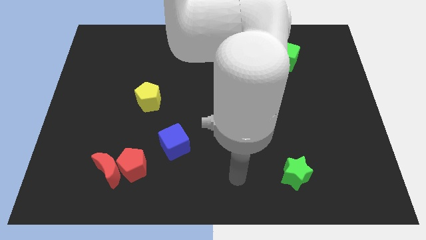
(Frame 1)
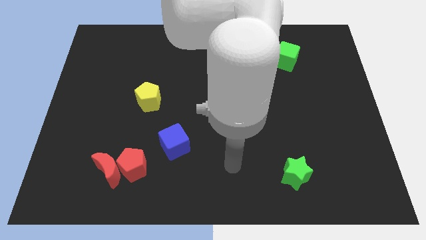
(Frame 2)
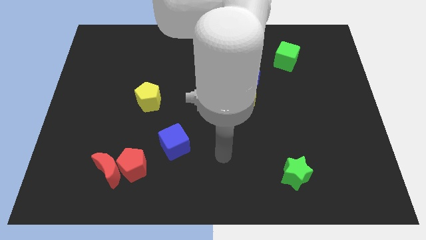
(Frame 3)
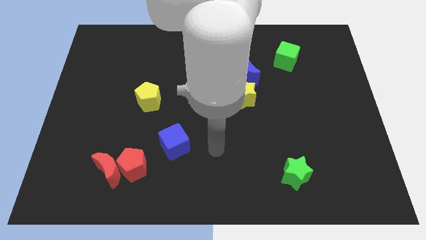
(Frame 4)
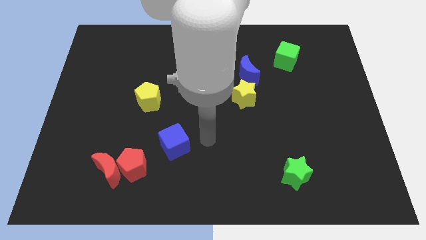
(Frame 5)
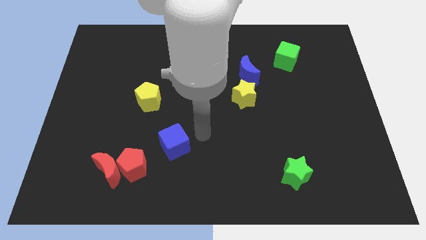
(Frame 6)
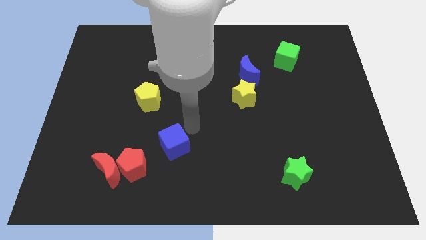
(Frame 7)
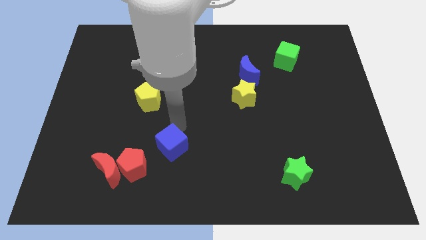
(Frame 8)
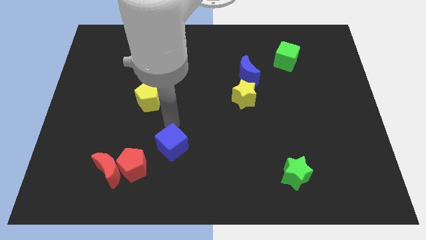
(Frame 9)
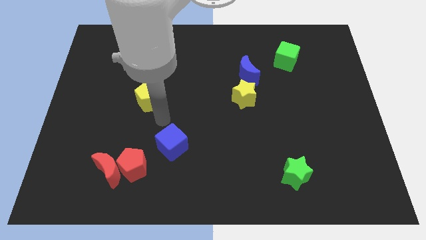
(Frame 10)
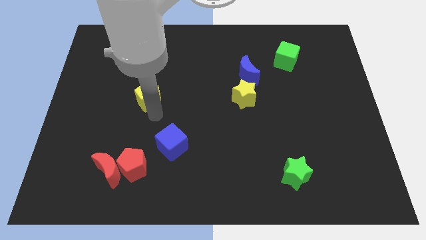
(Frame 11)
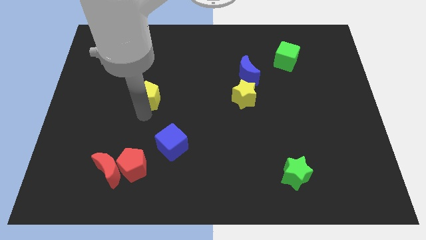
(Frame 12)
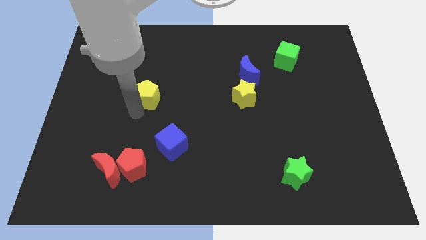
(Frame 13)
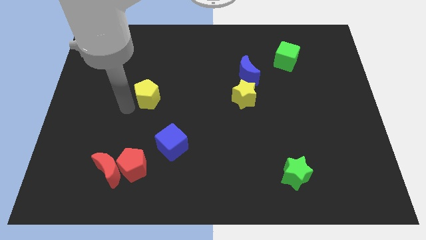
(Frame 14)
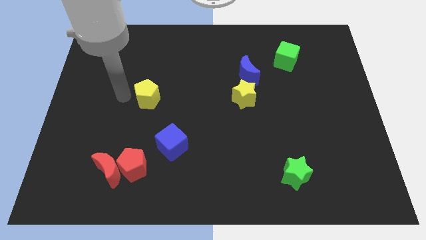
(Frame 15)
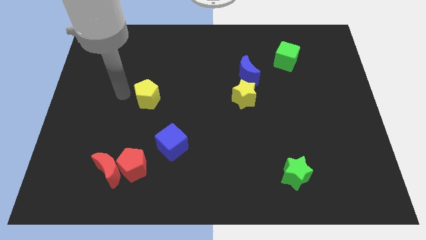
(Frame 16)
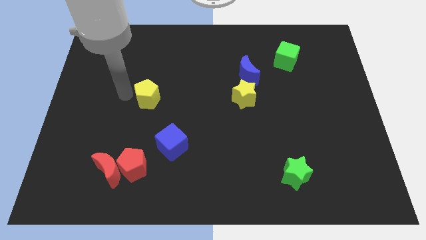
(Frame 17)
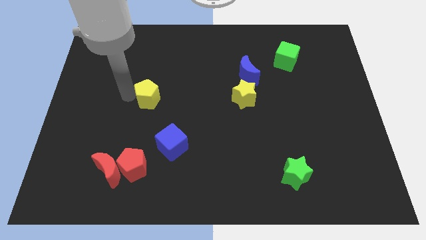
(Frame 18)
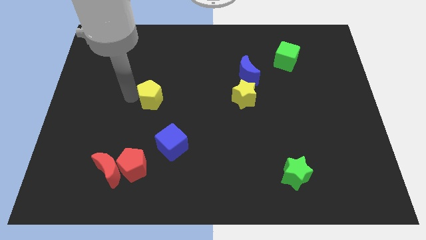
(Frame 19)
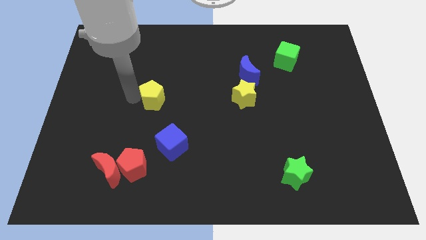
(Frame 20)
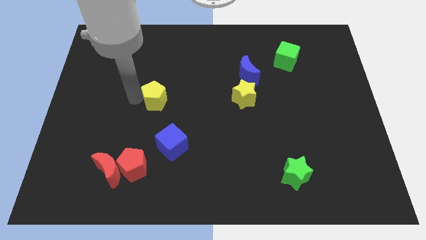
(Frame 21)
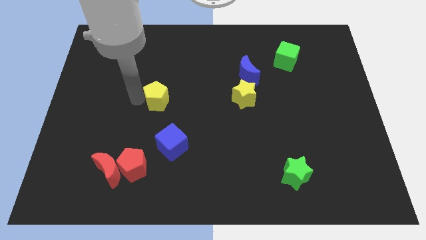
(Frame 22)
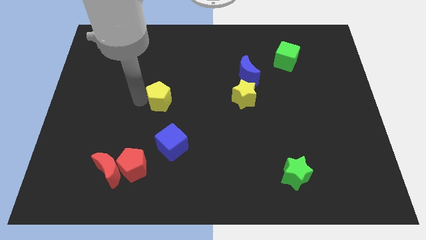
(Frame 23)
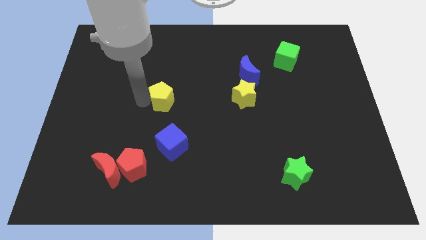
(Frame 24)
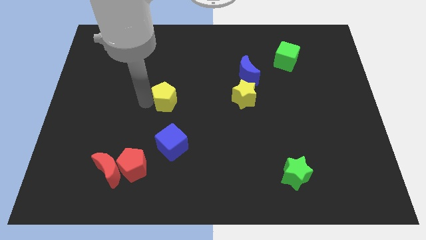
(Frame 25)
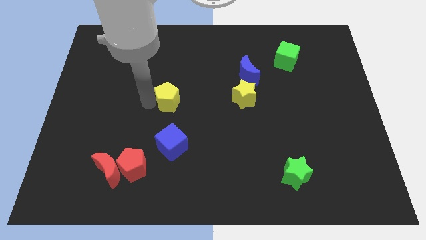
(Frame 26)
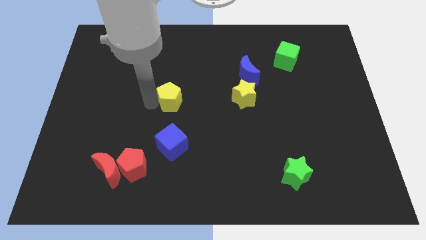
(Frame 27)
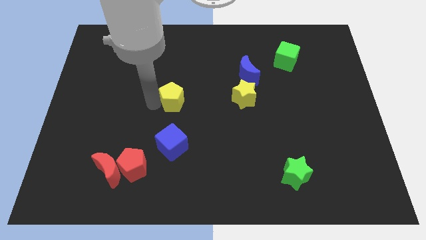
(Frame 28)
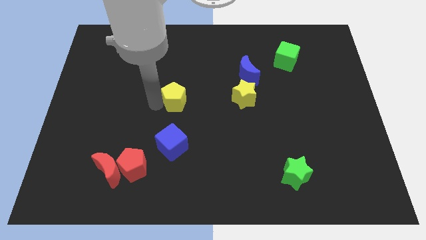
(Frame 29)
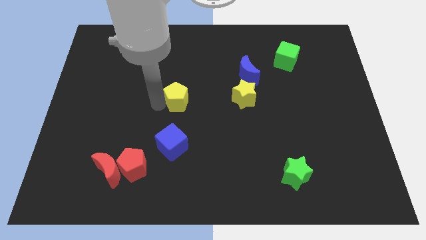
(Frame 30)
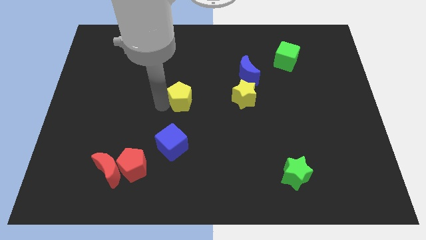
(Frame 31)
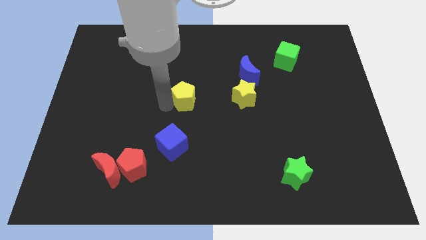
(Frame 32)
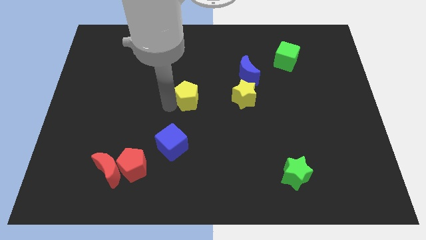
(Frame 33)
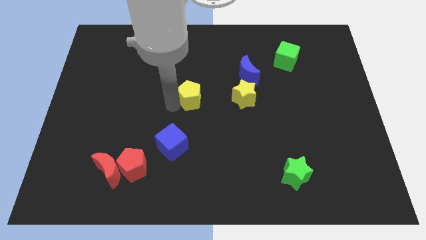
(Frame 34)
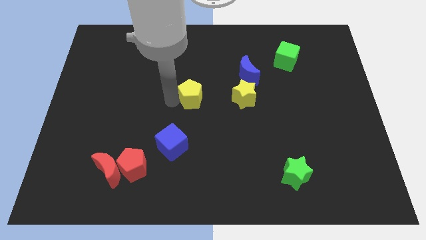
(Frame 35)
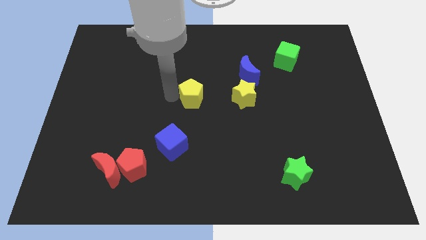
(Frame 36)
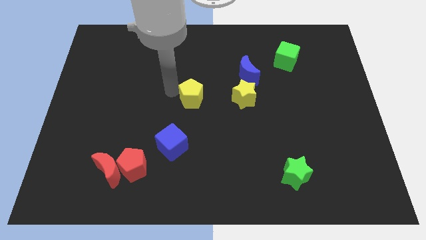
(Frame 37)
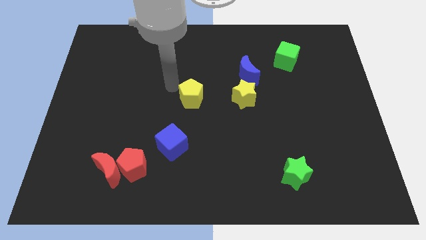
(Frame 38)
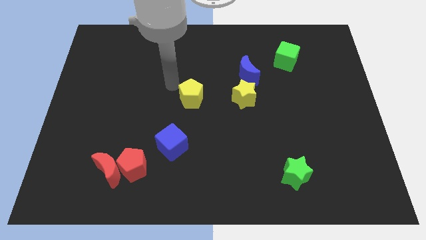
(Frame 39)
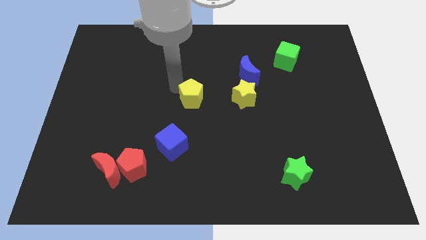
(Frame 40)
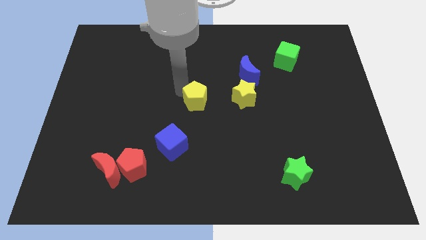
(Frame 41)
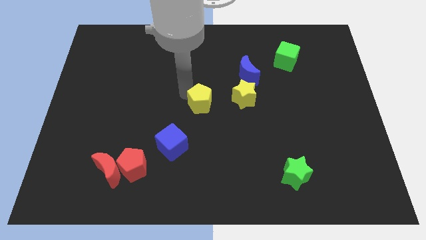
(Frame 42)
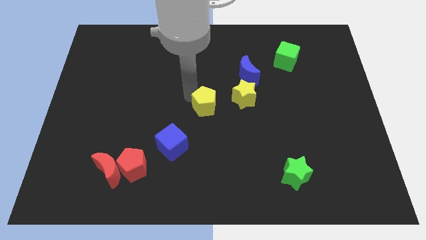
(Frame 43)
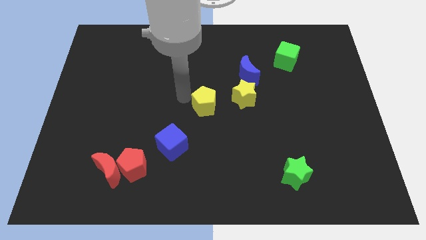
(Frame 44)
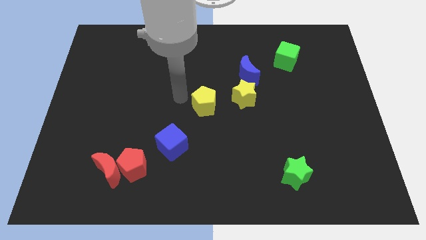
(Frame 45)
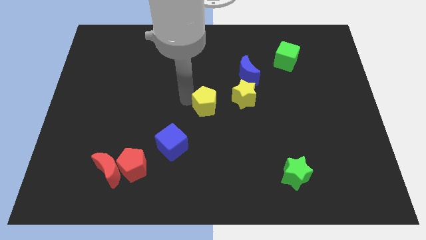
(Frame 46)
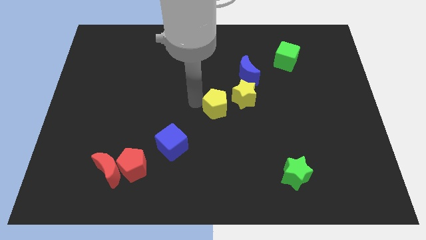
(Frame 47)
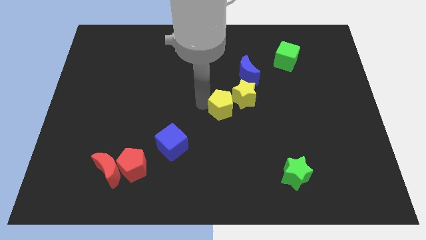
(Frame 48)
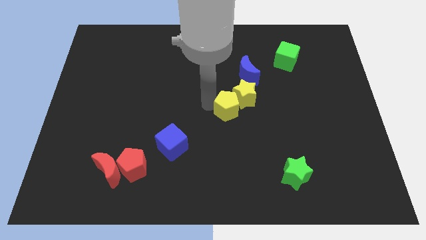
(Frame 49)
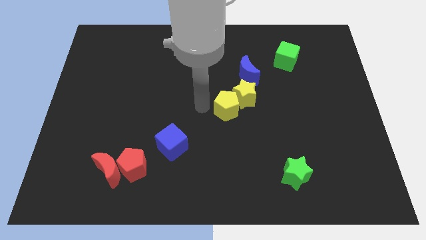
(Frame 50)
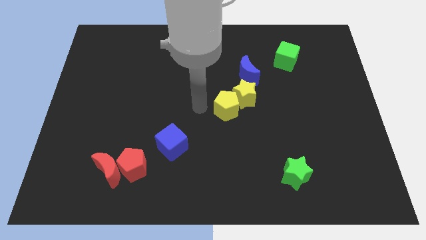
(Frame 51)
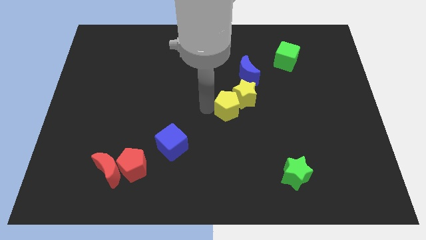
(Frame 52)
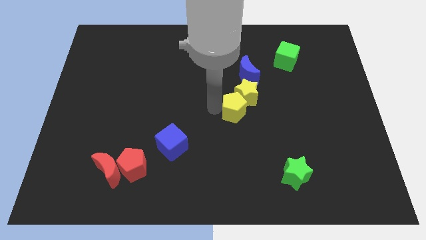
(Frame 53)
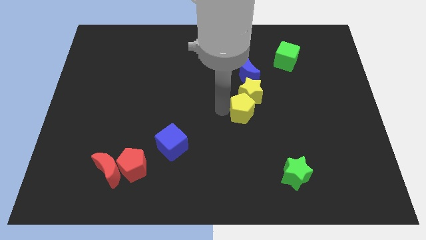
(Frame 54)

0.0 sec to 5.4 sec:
push the yellow pentagon to the right

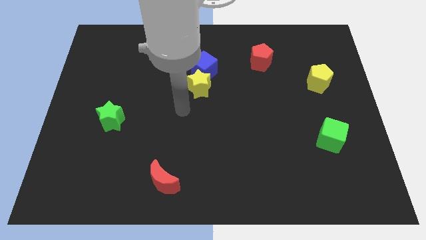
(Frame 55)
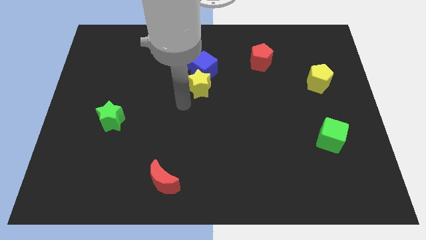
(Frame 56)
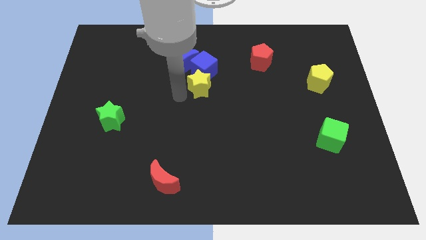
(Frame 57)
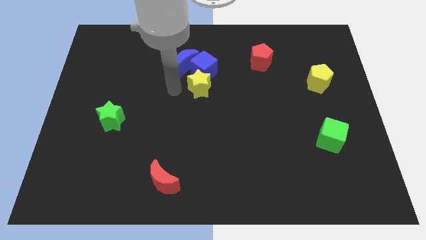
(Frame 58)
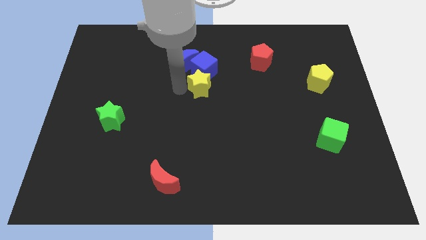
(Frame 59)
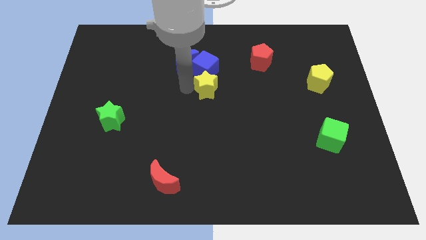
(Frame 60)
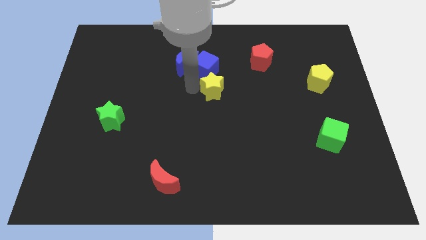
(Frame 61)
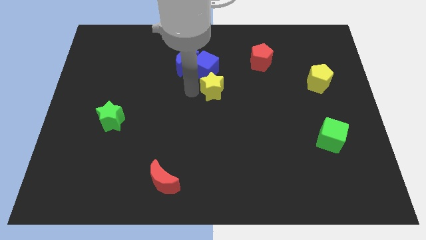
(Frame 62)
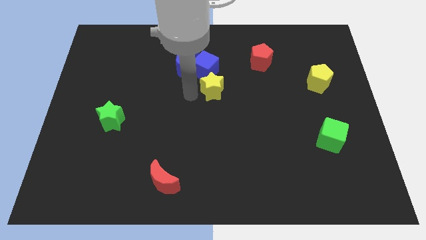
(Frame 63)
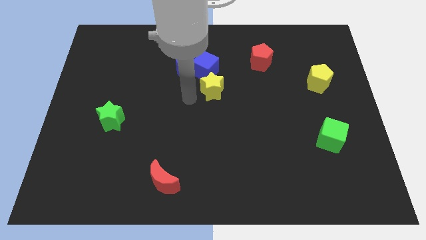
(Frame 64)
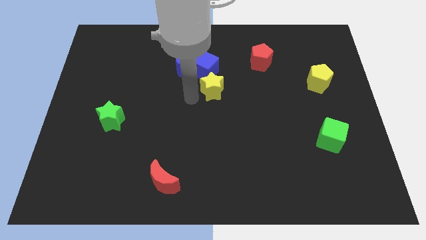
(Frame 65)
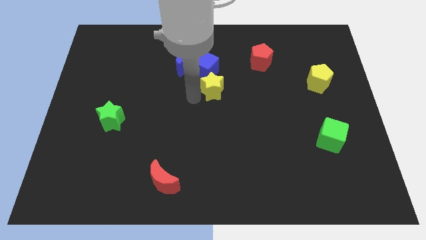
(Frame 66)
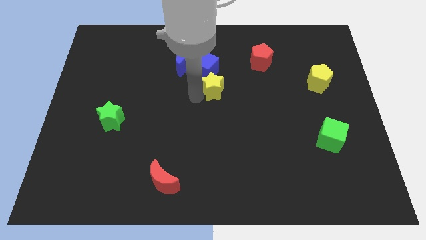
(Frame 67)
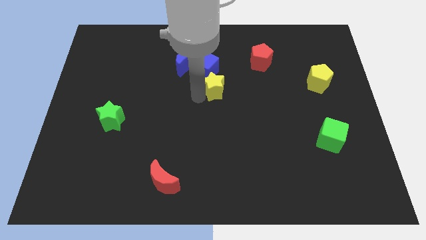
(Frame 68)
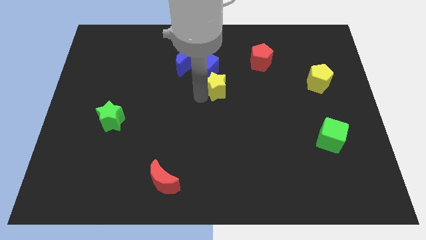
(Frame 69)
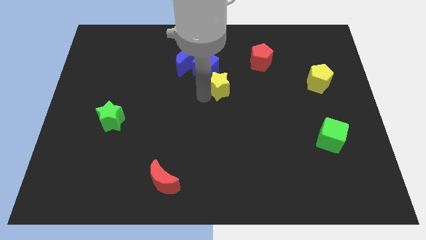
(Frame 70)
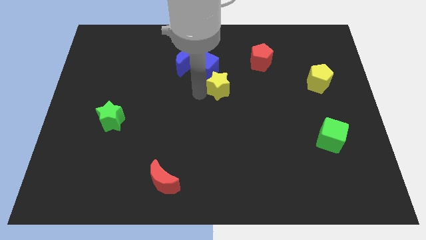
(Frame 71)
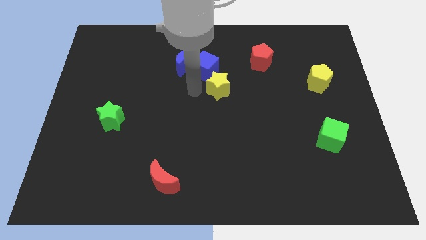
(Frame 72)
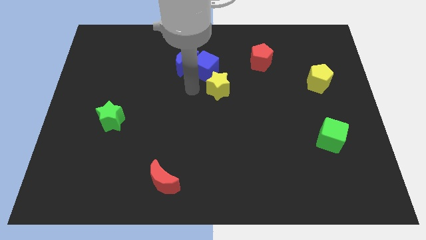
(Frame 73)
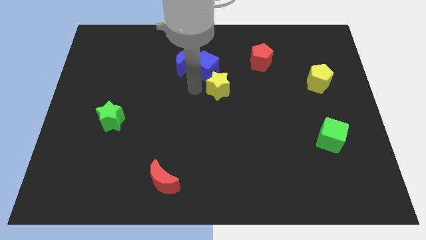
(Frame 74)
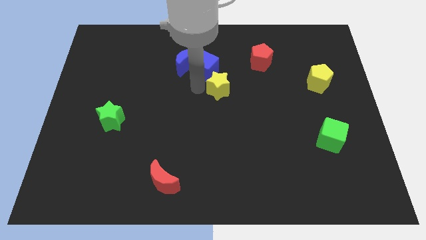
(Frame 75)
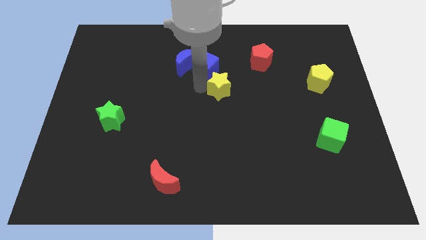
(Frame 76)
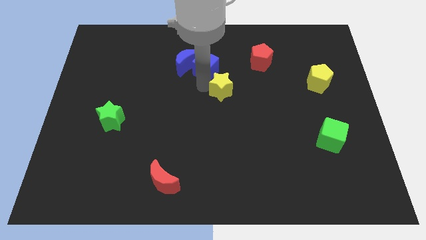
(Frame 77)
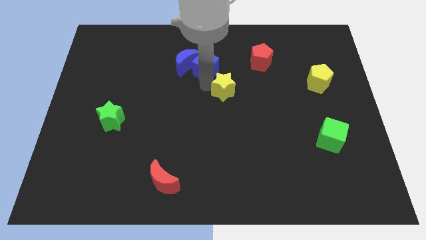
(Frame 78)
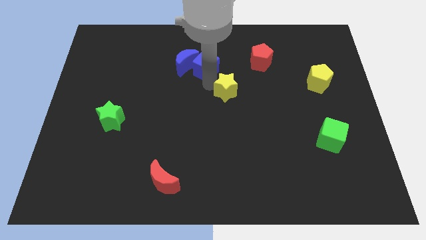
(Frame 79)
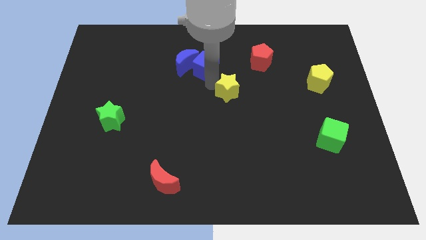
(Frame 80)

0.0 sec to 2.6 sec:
push the yellow star to the right a little
